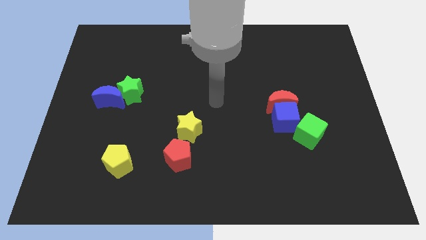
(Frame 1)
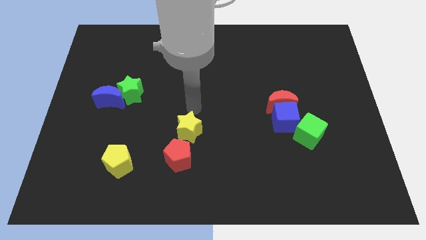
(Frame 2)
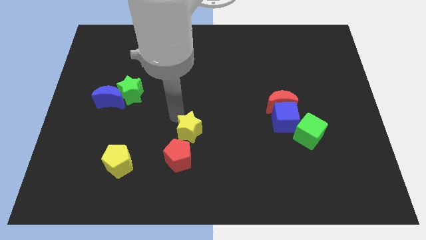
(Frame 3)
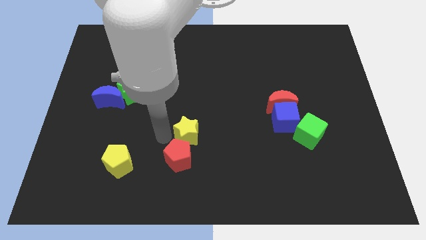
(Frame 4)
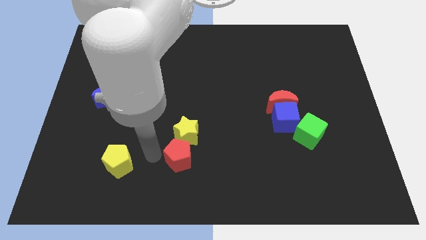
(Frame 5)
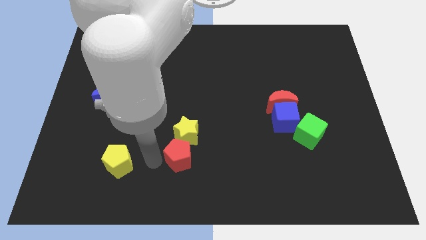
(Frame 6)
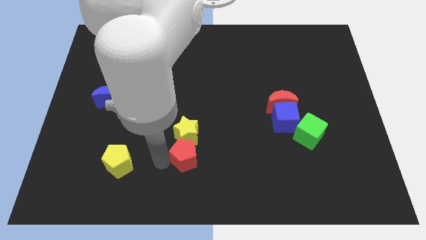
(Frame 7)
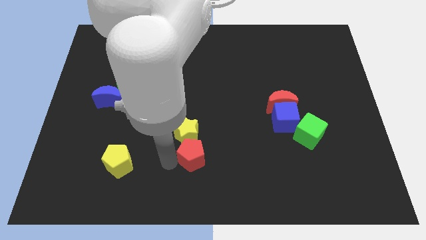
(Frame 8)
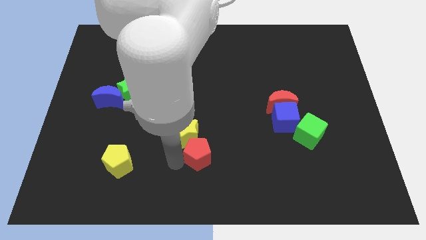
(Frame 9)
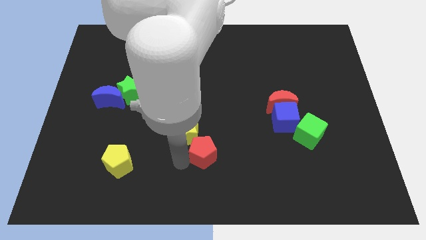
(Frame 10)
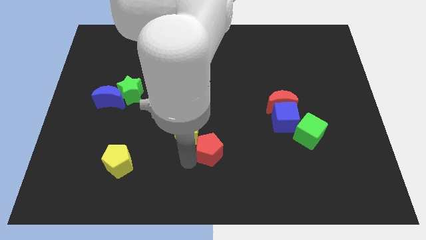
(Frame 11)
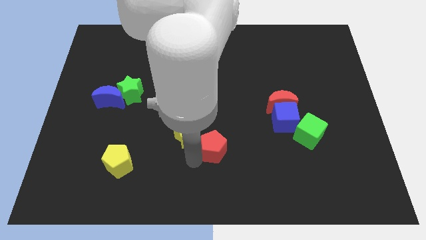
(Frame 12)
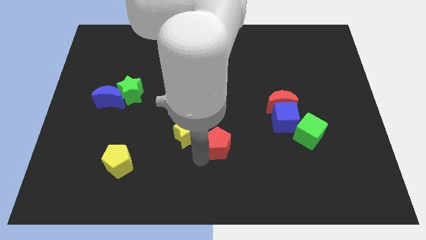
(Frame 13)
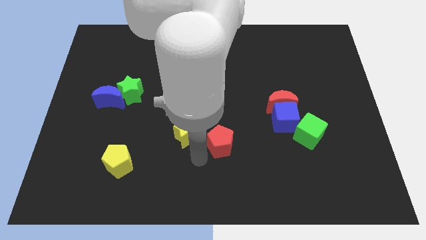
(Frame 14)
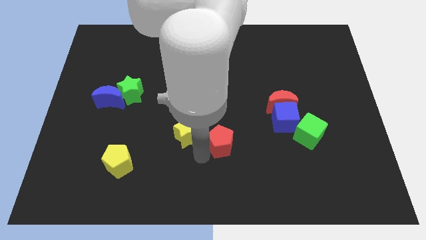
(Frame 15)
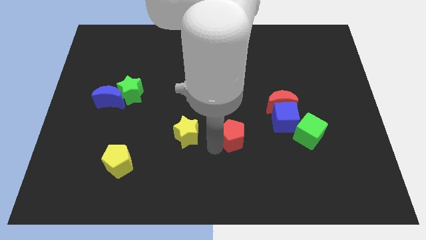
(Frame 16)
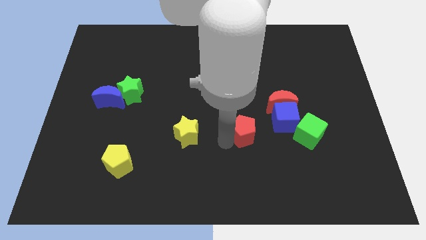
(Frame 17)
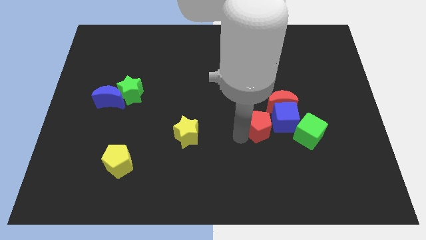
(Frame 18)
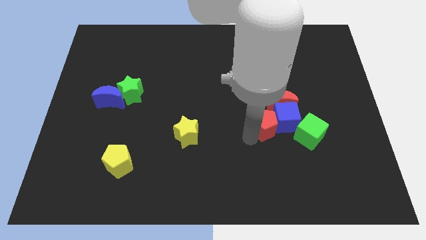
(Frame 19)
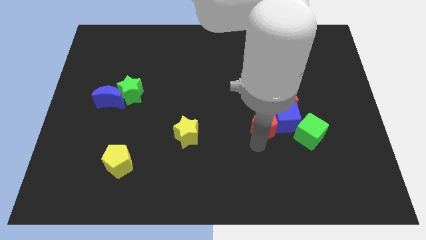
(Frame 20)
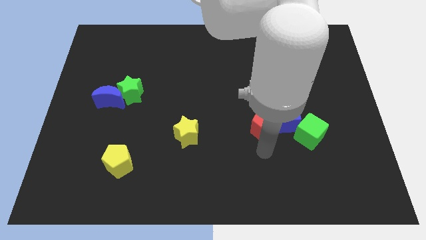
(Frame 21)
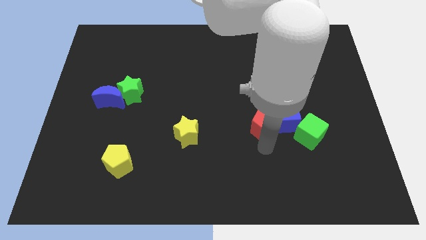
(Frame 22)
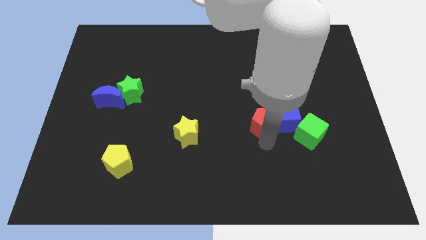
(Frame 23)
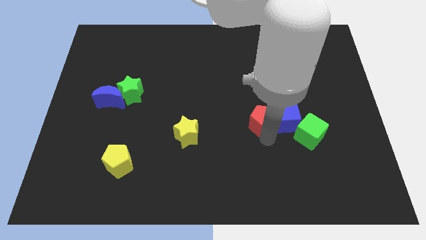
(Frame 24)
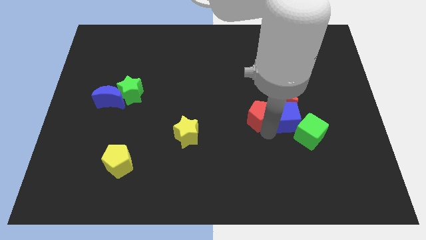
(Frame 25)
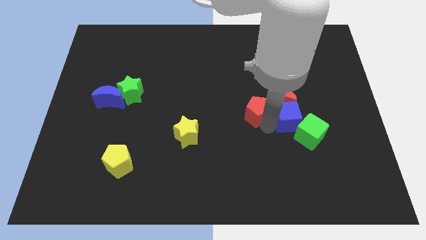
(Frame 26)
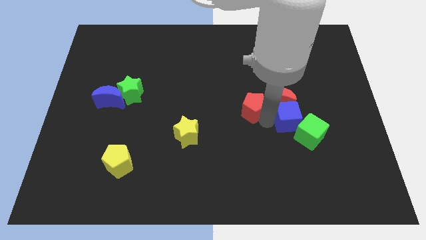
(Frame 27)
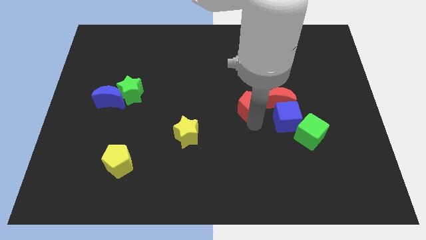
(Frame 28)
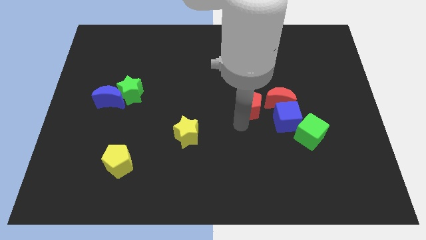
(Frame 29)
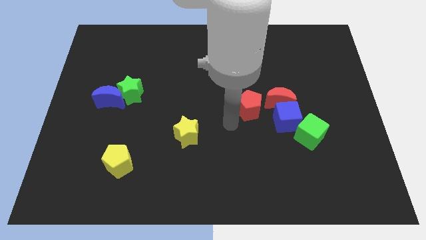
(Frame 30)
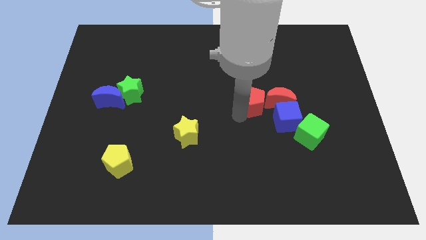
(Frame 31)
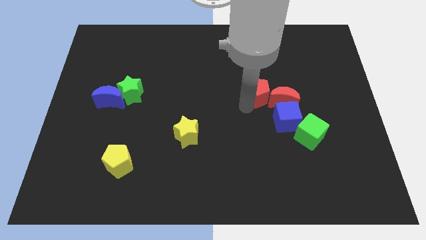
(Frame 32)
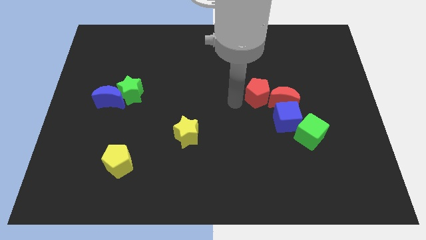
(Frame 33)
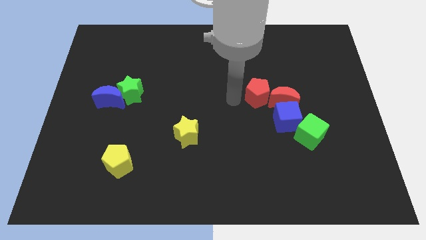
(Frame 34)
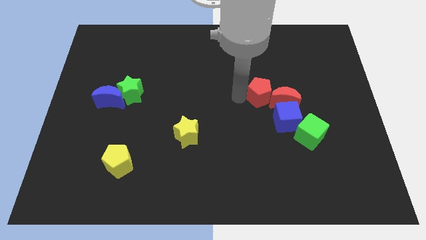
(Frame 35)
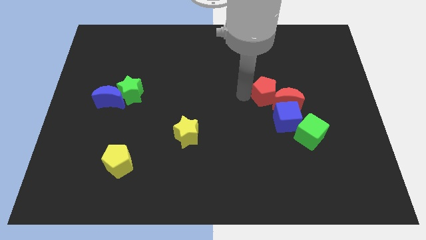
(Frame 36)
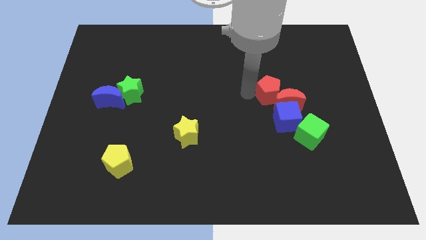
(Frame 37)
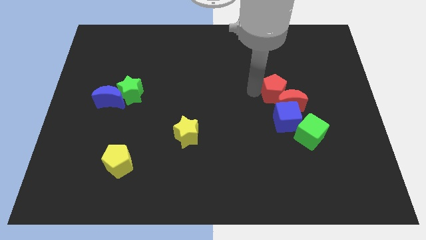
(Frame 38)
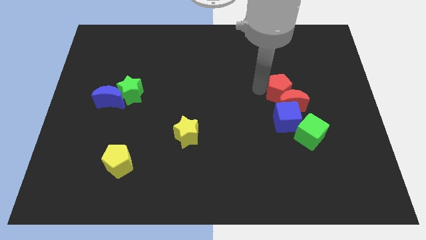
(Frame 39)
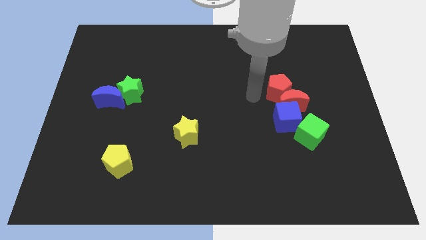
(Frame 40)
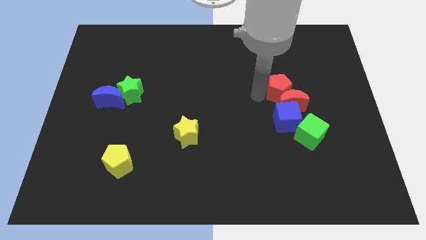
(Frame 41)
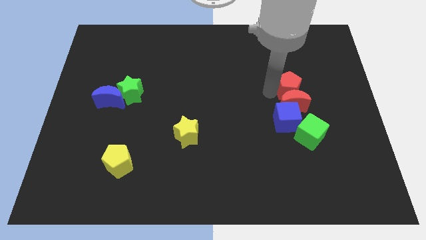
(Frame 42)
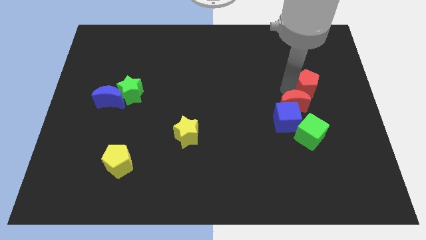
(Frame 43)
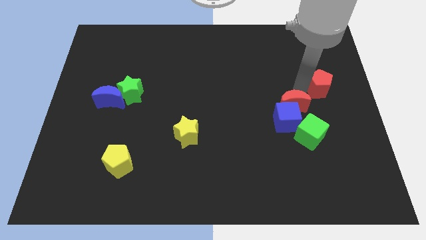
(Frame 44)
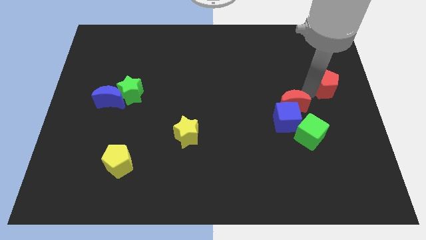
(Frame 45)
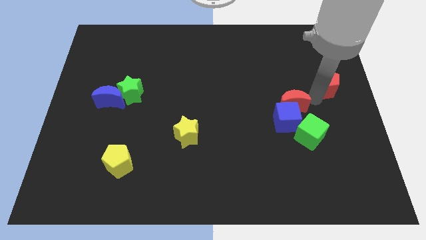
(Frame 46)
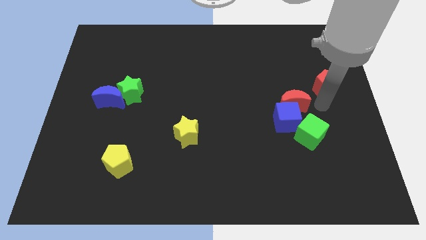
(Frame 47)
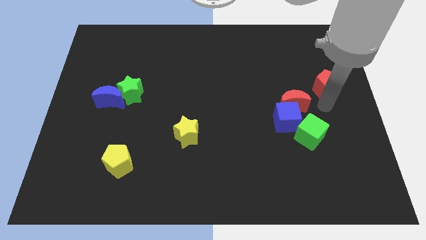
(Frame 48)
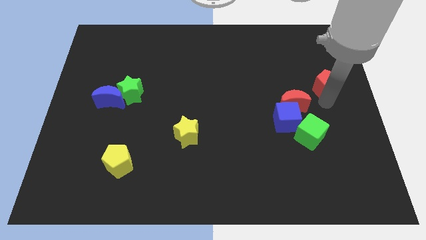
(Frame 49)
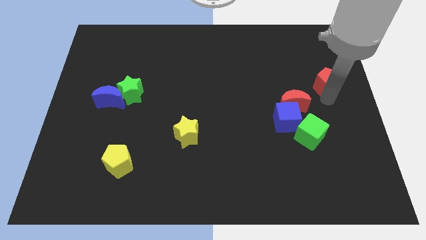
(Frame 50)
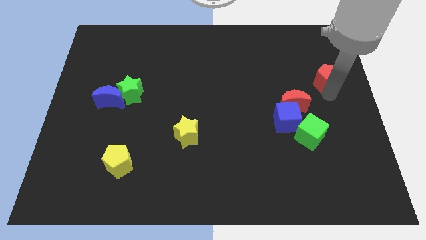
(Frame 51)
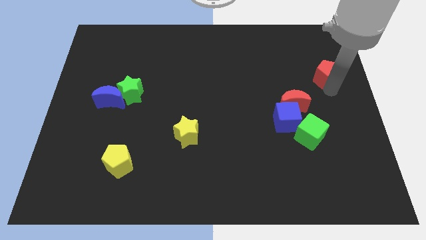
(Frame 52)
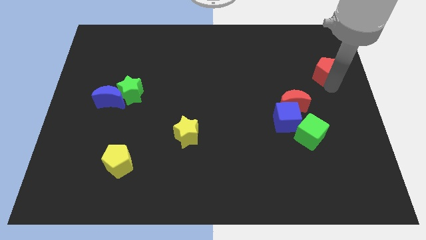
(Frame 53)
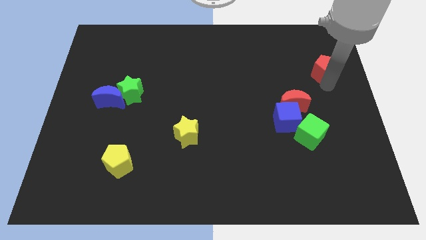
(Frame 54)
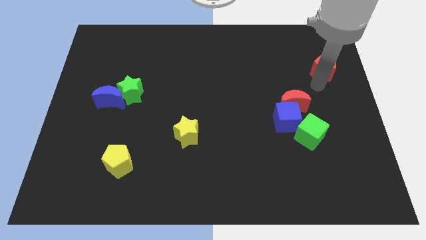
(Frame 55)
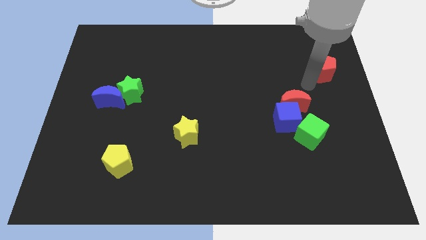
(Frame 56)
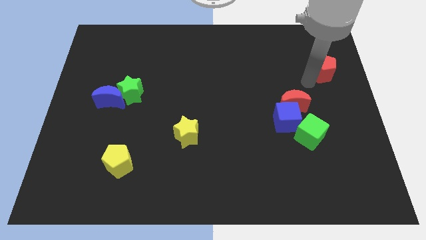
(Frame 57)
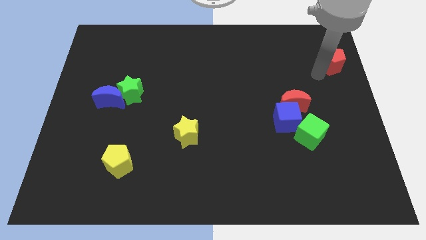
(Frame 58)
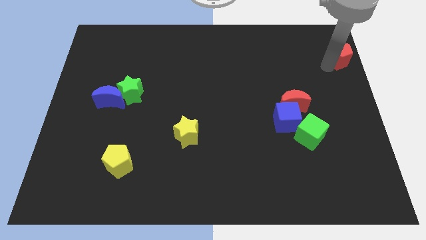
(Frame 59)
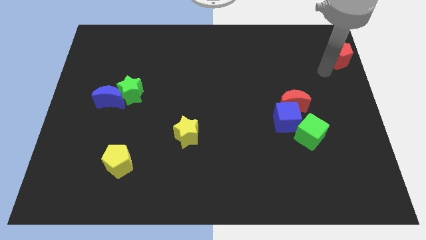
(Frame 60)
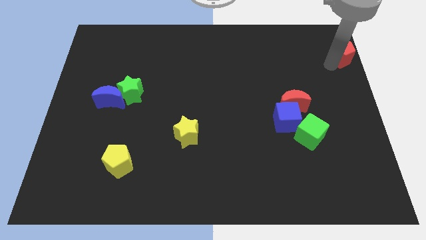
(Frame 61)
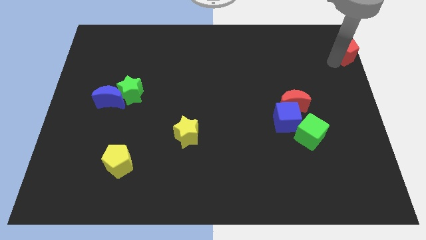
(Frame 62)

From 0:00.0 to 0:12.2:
move the red pentagon to the upper right corner

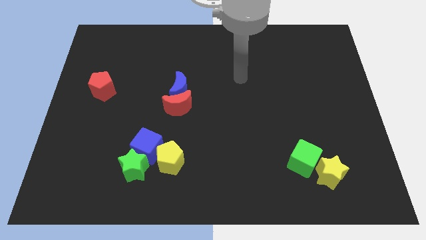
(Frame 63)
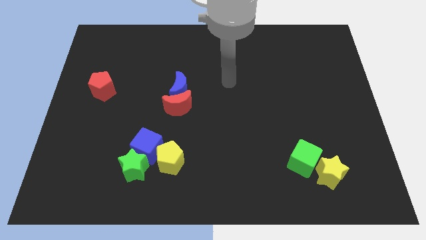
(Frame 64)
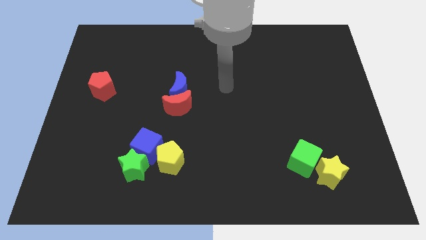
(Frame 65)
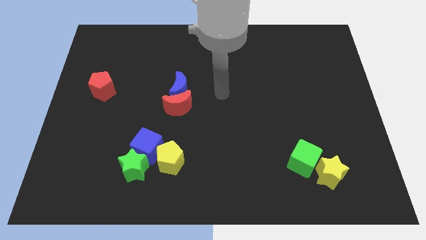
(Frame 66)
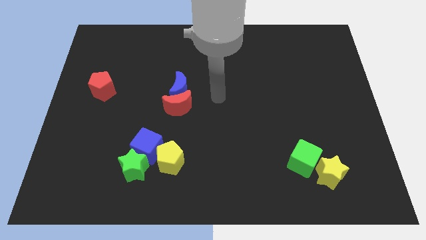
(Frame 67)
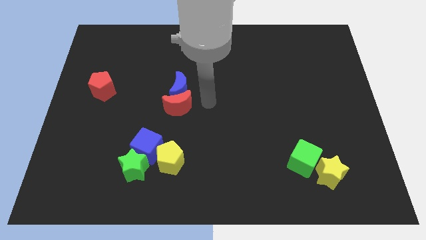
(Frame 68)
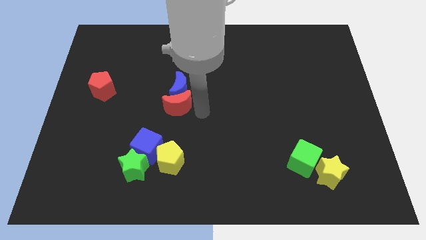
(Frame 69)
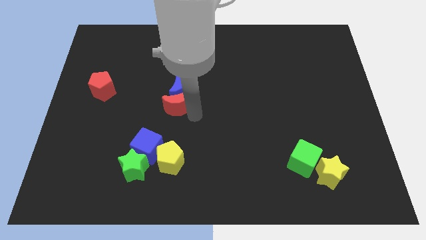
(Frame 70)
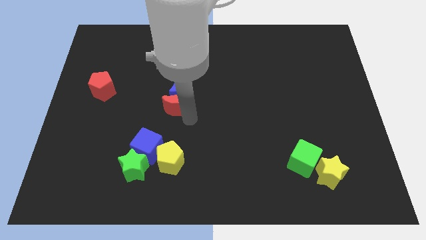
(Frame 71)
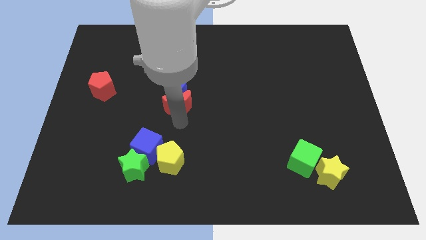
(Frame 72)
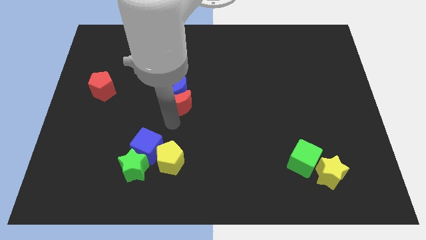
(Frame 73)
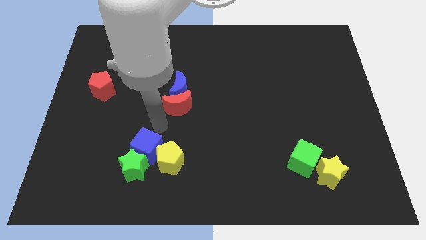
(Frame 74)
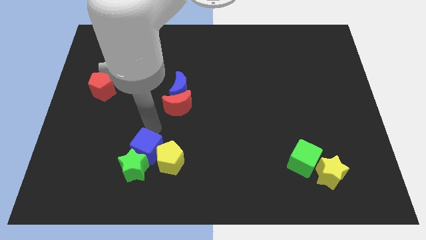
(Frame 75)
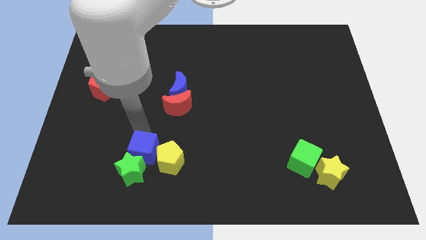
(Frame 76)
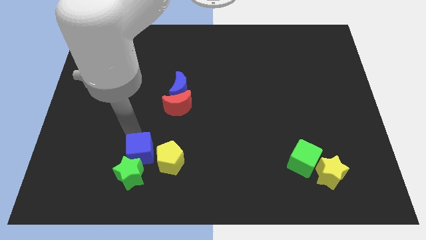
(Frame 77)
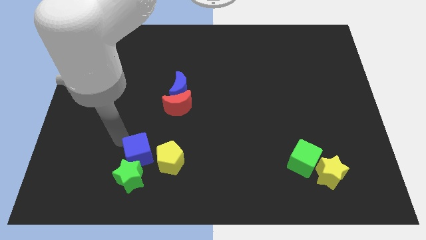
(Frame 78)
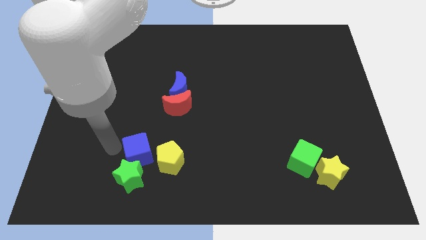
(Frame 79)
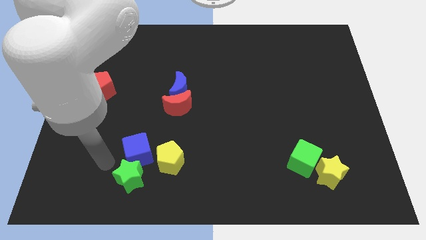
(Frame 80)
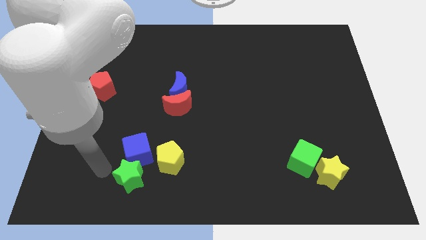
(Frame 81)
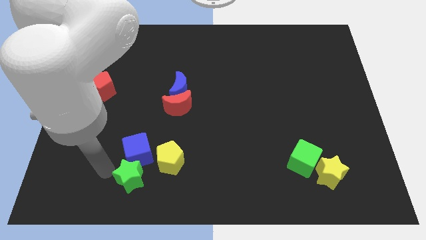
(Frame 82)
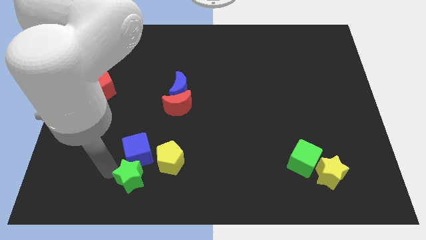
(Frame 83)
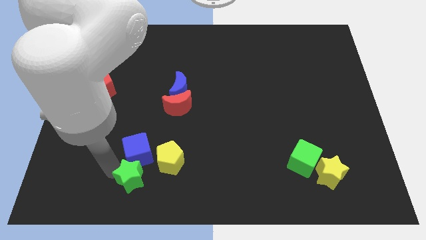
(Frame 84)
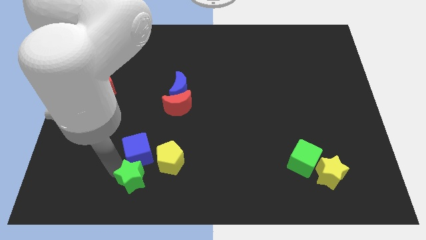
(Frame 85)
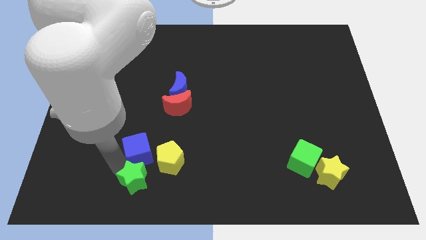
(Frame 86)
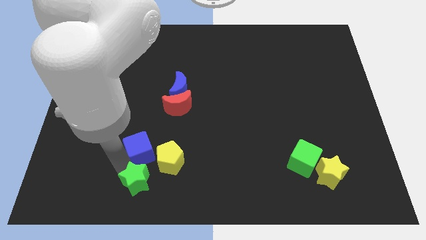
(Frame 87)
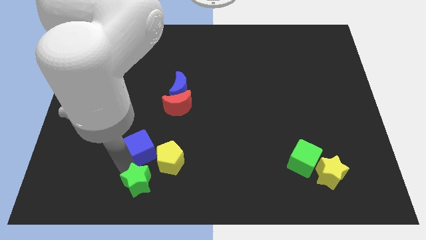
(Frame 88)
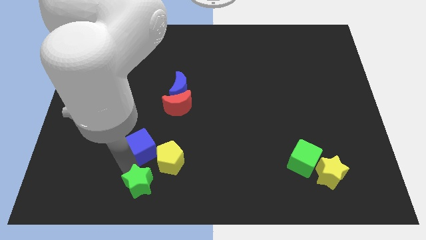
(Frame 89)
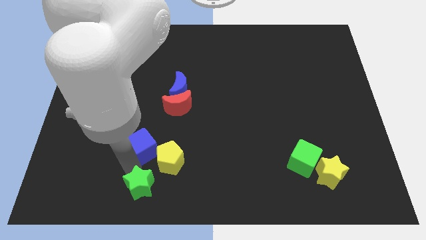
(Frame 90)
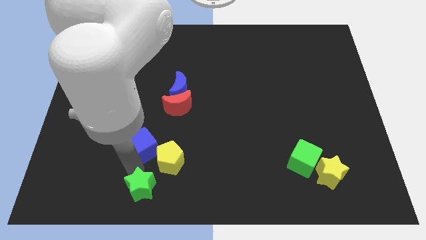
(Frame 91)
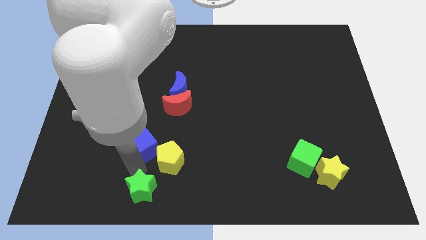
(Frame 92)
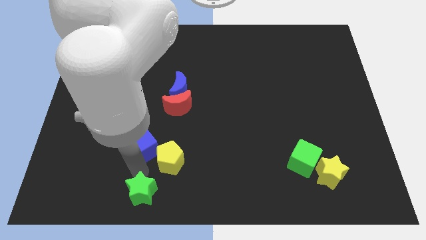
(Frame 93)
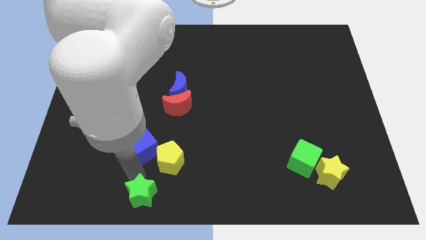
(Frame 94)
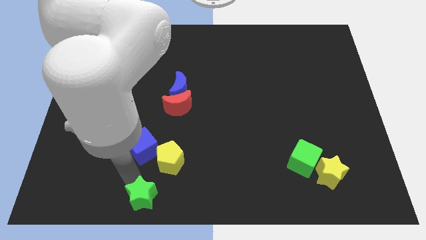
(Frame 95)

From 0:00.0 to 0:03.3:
push the green star to the bottom side
